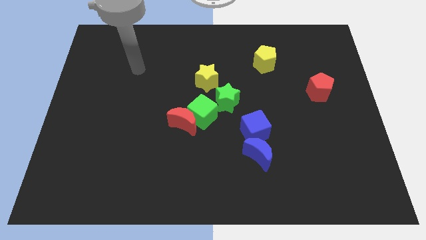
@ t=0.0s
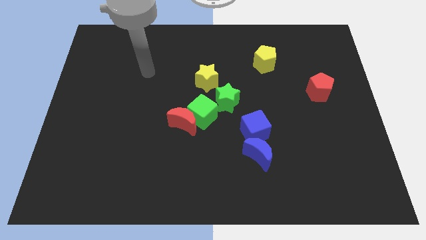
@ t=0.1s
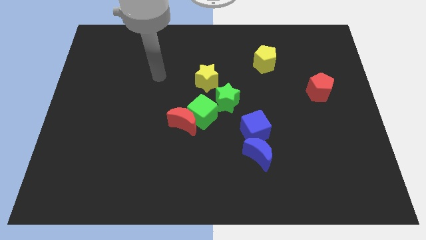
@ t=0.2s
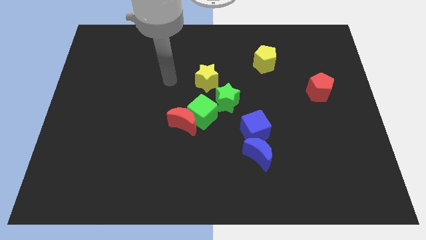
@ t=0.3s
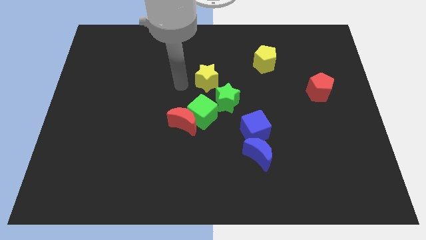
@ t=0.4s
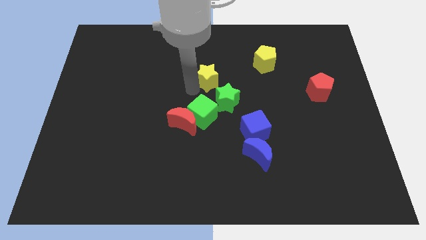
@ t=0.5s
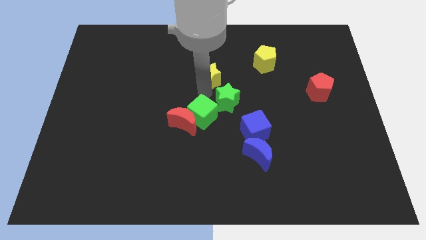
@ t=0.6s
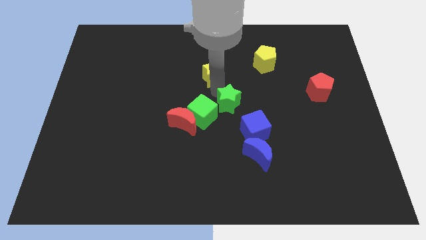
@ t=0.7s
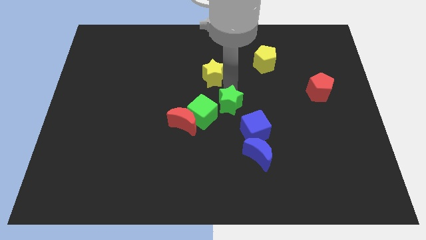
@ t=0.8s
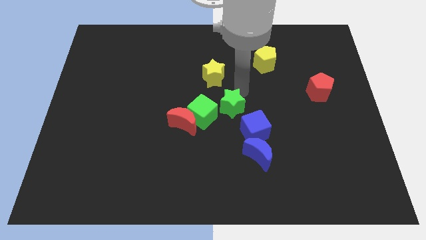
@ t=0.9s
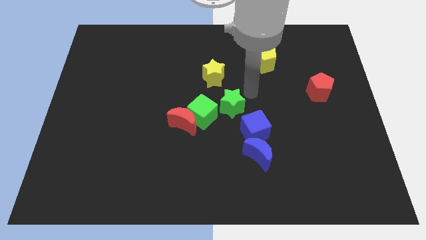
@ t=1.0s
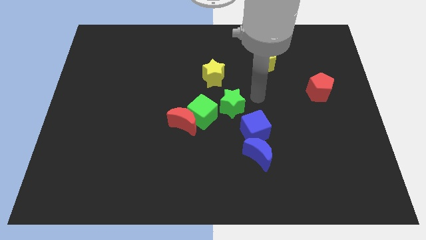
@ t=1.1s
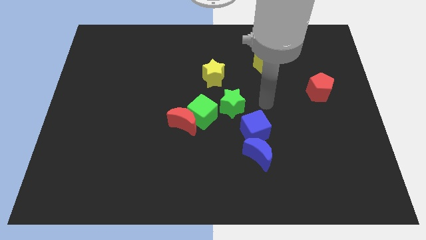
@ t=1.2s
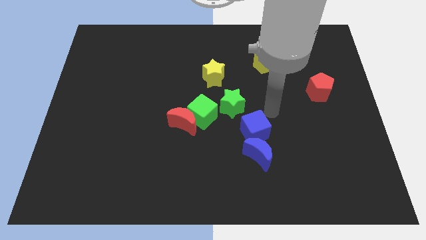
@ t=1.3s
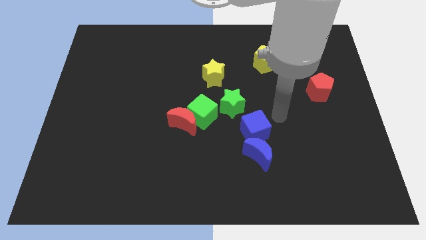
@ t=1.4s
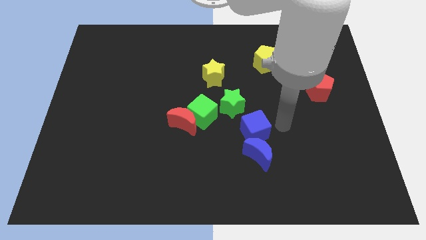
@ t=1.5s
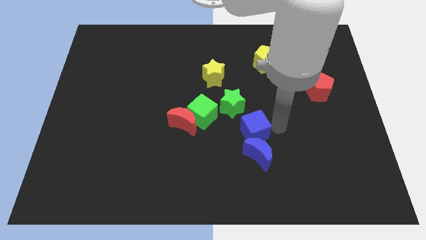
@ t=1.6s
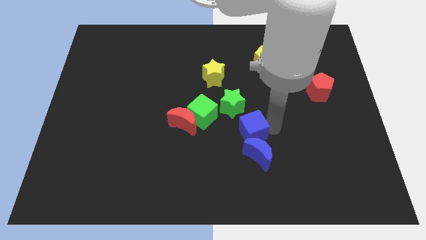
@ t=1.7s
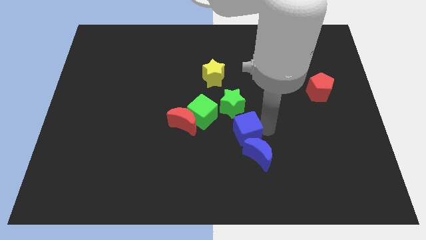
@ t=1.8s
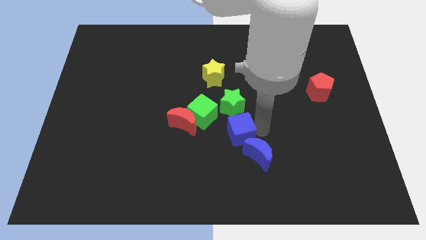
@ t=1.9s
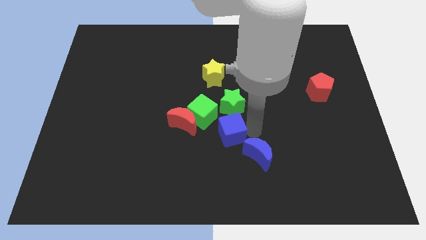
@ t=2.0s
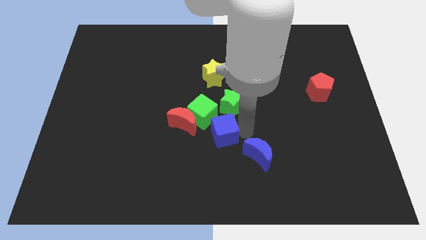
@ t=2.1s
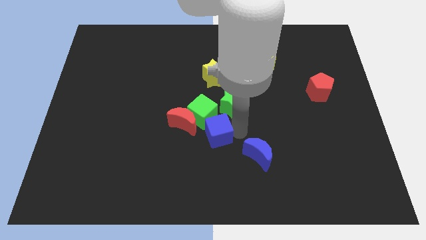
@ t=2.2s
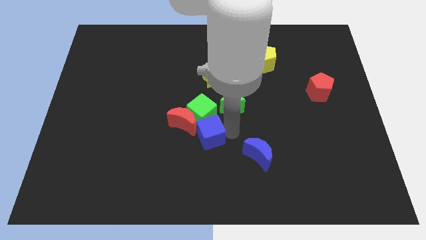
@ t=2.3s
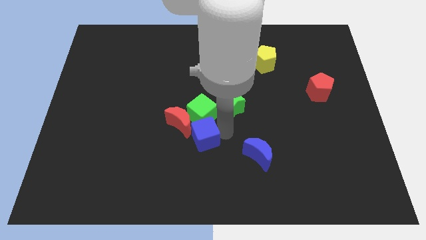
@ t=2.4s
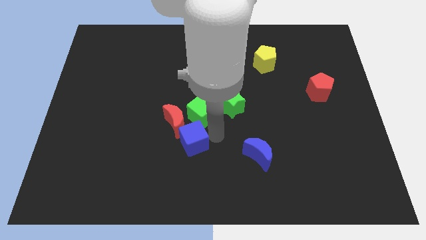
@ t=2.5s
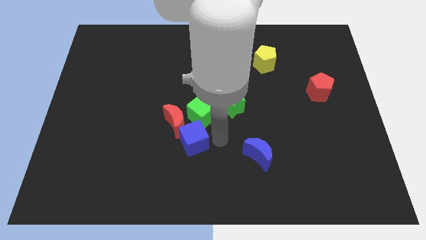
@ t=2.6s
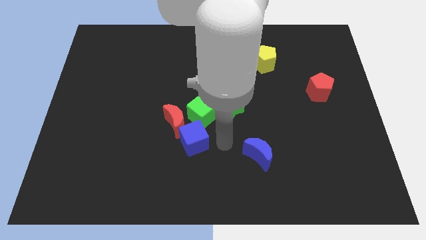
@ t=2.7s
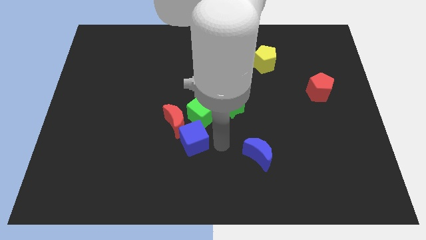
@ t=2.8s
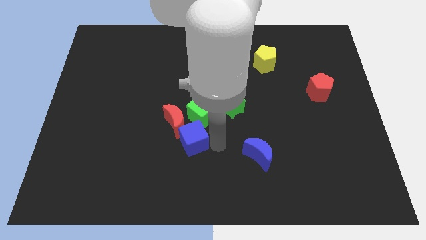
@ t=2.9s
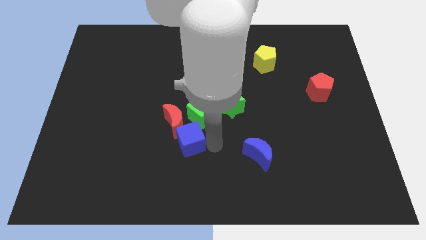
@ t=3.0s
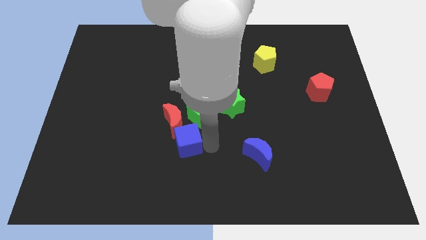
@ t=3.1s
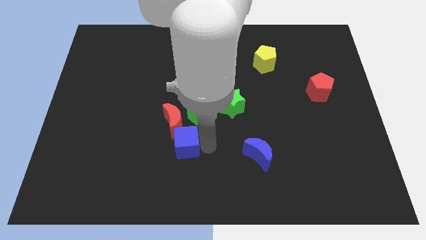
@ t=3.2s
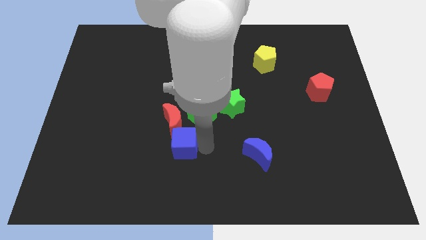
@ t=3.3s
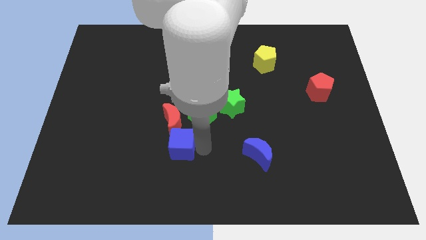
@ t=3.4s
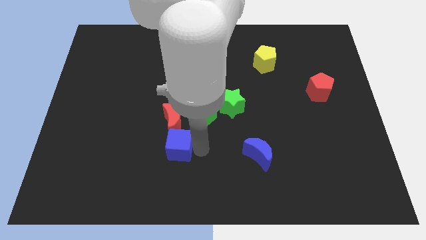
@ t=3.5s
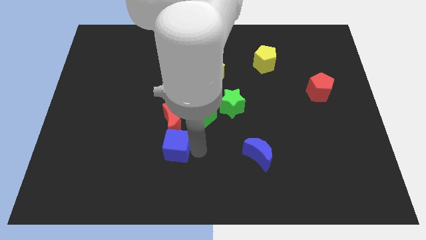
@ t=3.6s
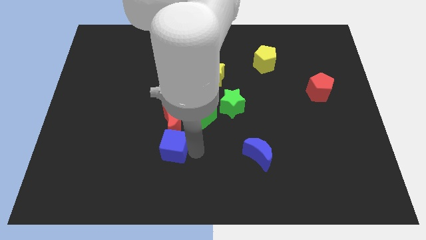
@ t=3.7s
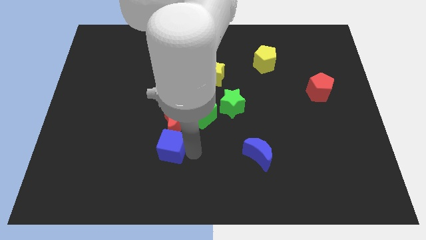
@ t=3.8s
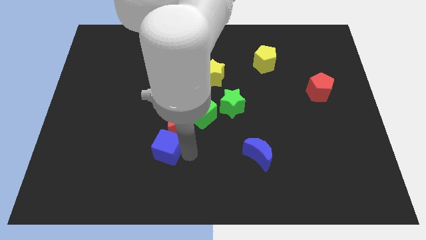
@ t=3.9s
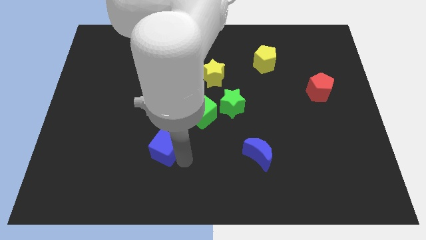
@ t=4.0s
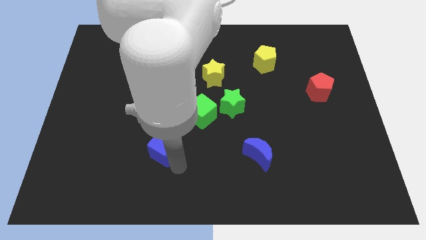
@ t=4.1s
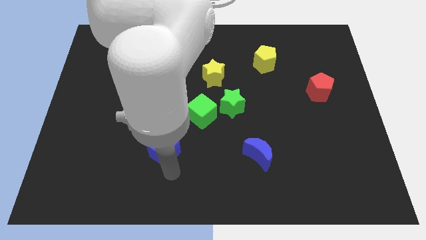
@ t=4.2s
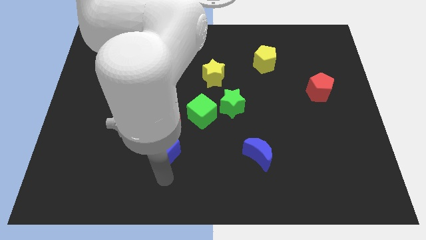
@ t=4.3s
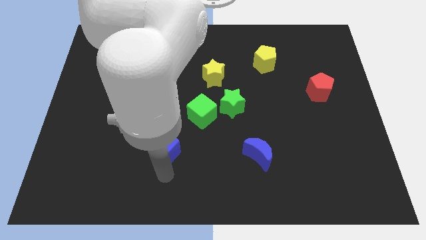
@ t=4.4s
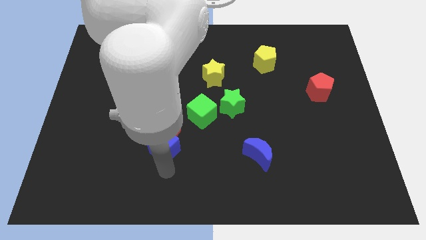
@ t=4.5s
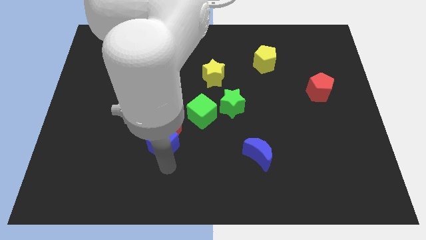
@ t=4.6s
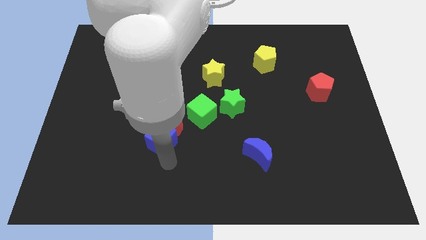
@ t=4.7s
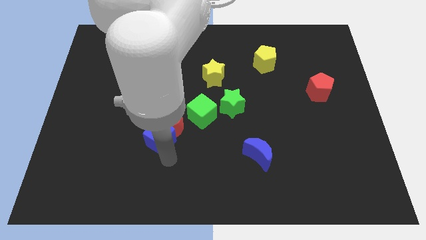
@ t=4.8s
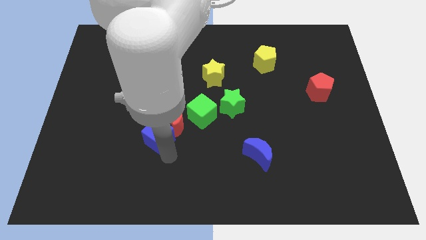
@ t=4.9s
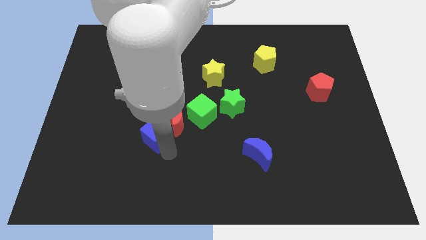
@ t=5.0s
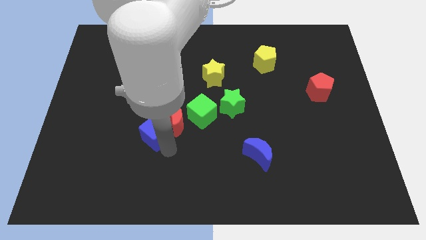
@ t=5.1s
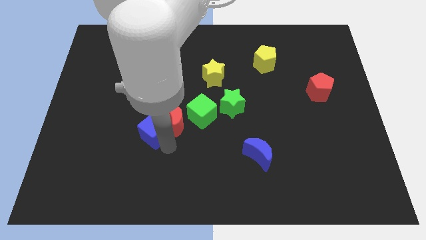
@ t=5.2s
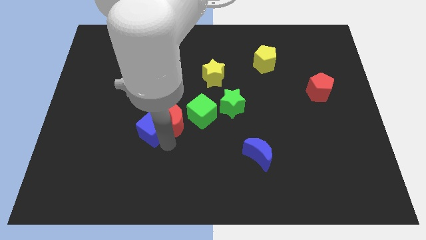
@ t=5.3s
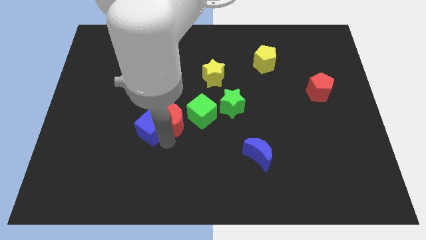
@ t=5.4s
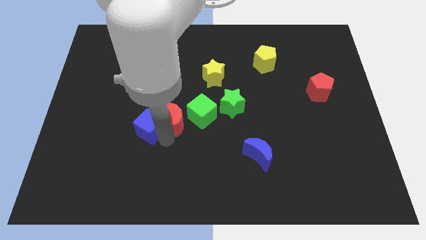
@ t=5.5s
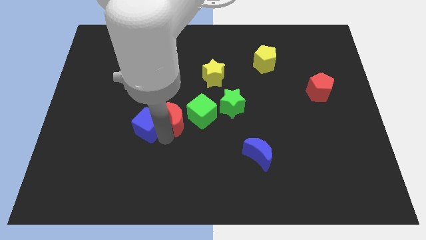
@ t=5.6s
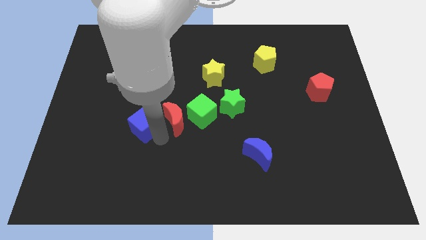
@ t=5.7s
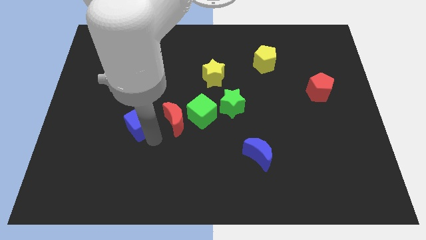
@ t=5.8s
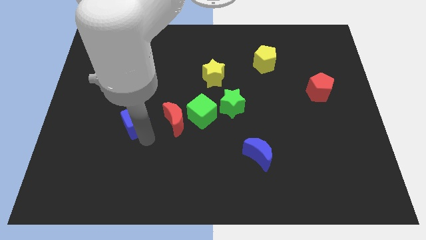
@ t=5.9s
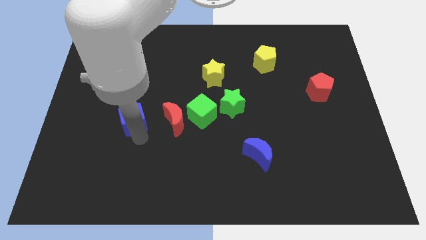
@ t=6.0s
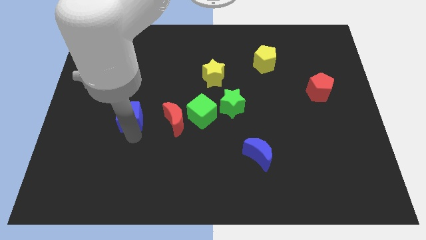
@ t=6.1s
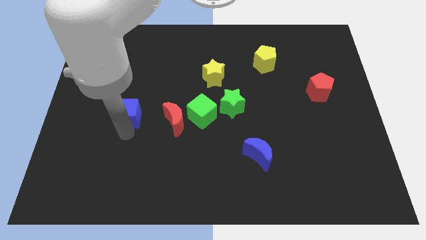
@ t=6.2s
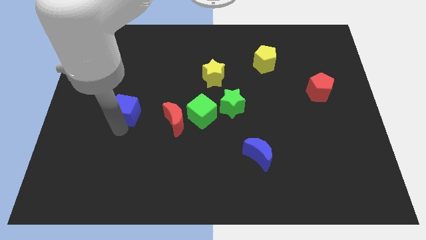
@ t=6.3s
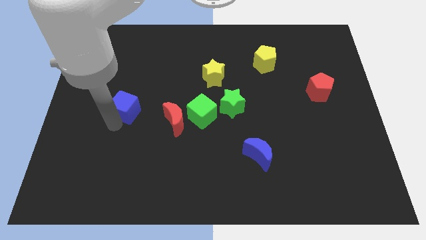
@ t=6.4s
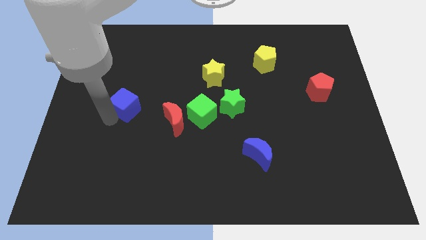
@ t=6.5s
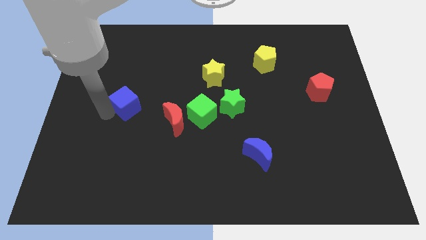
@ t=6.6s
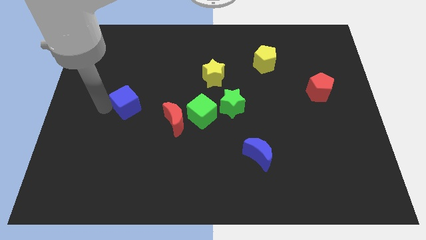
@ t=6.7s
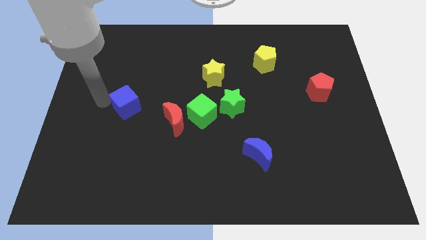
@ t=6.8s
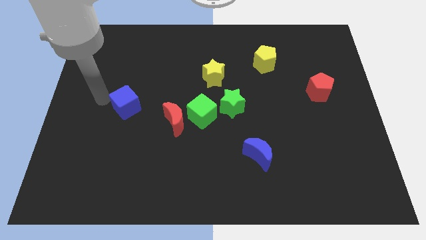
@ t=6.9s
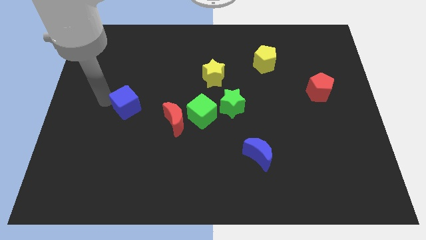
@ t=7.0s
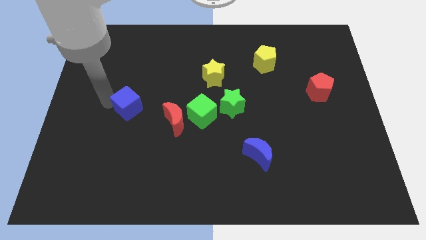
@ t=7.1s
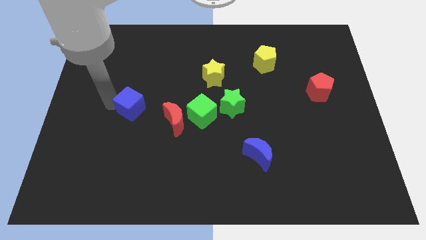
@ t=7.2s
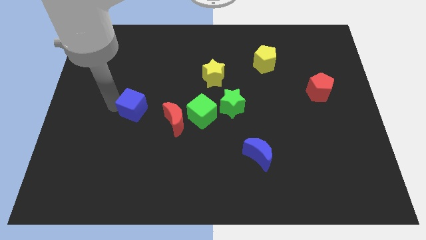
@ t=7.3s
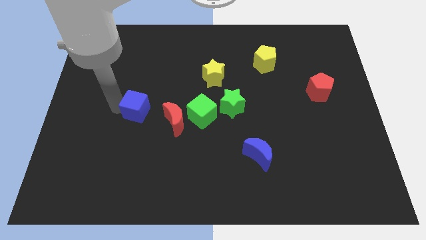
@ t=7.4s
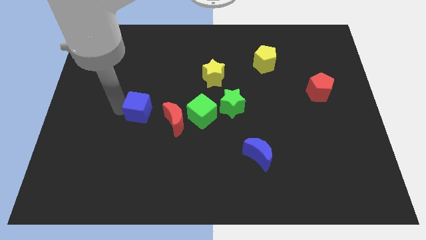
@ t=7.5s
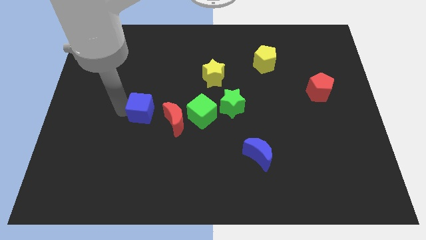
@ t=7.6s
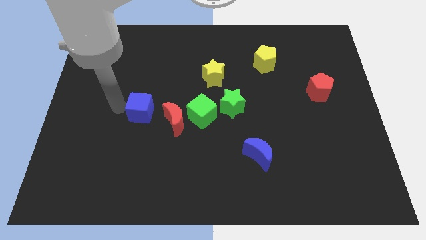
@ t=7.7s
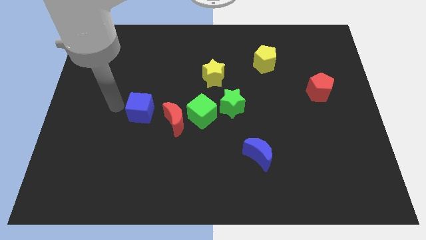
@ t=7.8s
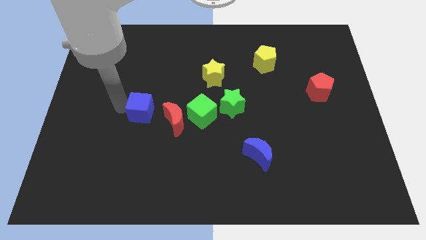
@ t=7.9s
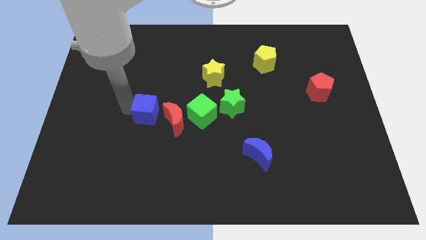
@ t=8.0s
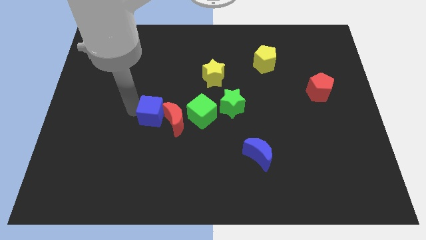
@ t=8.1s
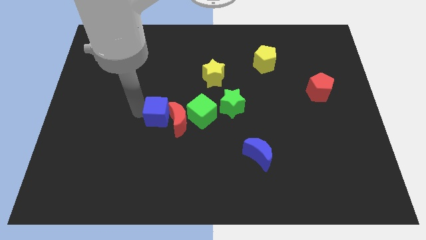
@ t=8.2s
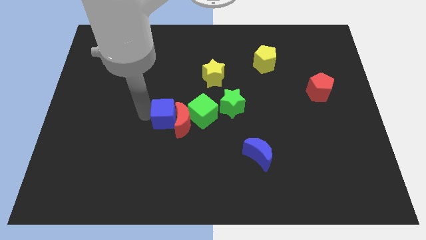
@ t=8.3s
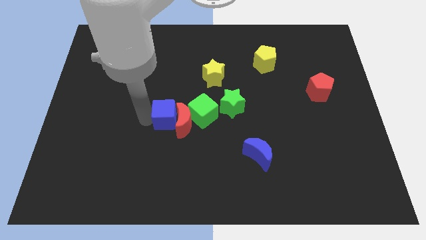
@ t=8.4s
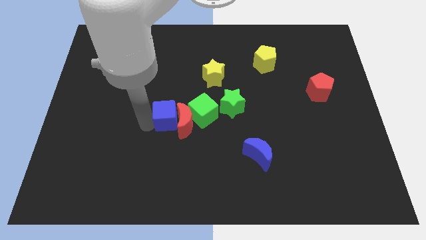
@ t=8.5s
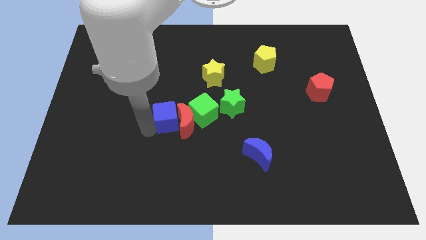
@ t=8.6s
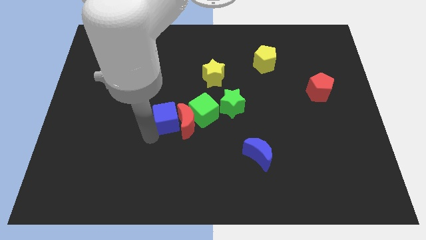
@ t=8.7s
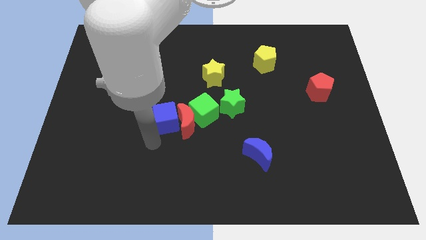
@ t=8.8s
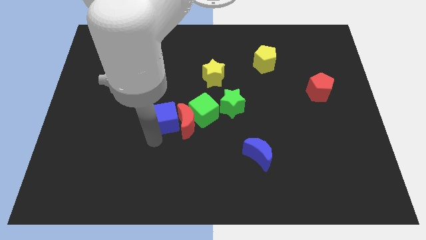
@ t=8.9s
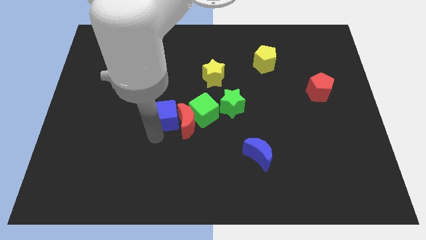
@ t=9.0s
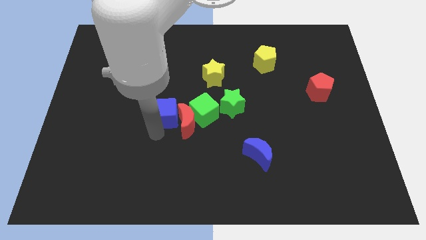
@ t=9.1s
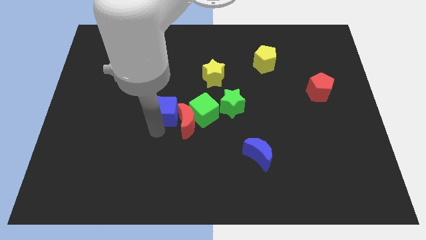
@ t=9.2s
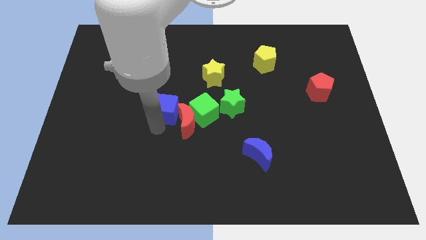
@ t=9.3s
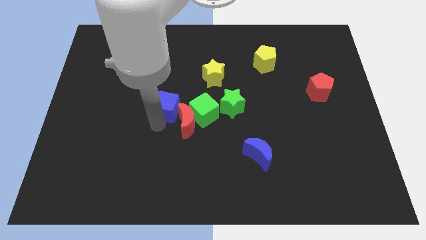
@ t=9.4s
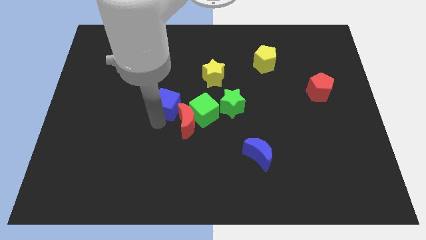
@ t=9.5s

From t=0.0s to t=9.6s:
put the blue cube to the top left of the green cube
